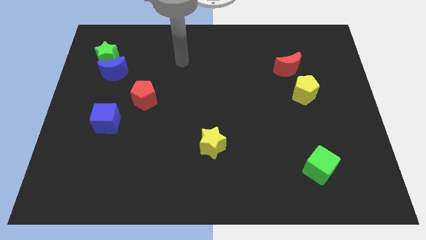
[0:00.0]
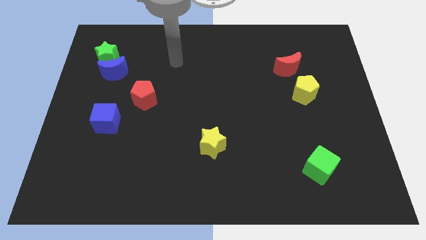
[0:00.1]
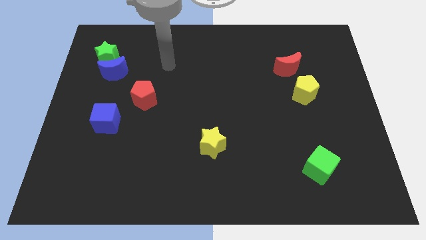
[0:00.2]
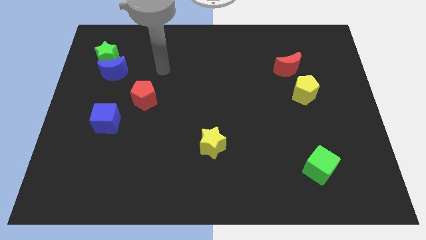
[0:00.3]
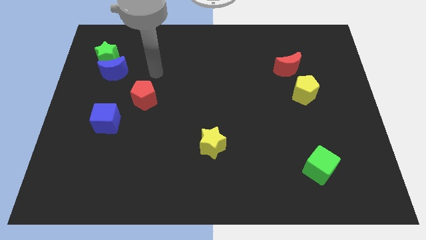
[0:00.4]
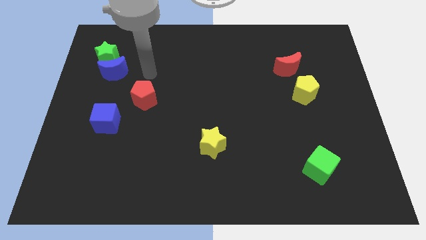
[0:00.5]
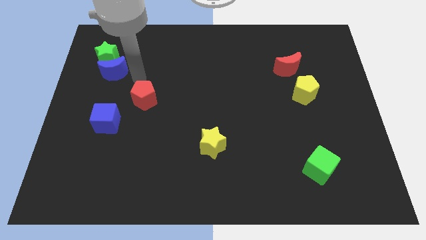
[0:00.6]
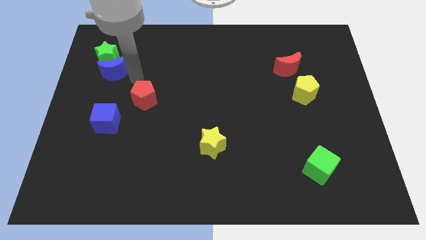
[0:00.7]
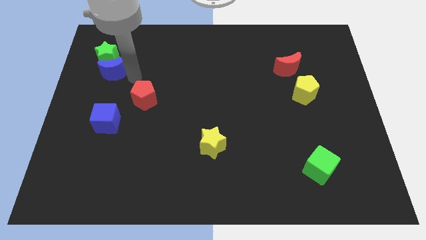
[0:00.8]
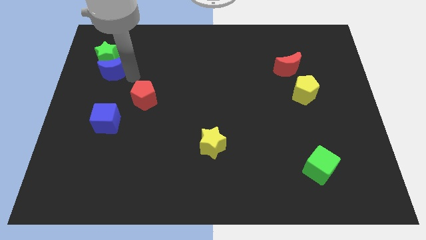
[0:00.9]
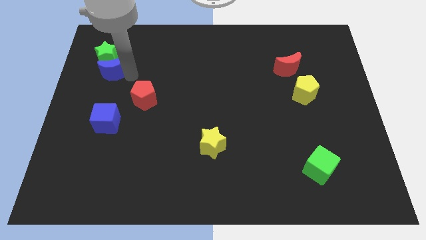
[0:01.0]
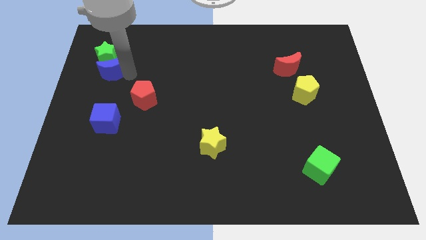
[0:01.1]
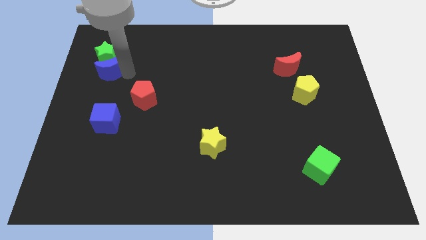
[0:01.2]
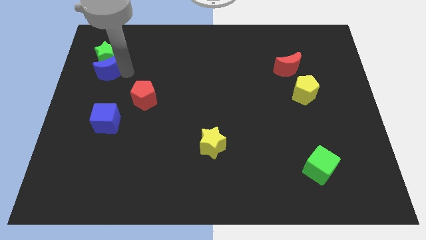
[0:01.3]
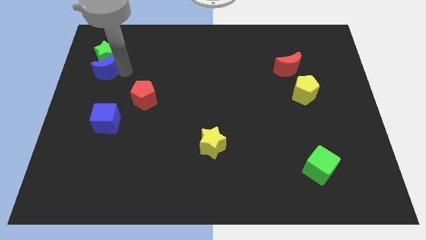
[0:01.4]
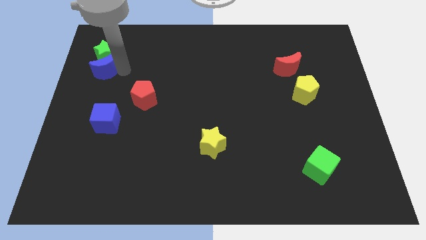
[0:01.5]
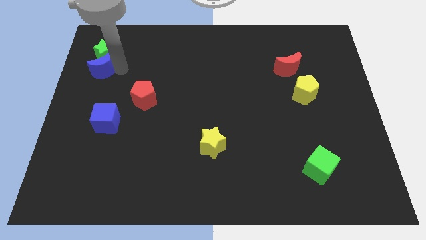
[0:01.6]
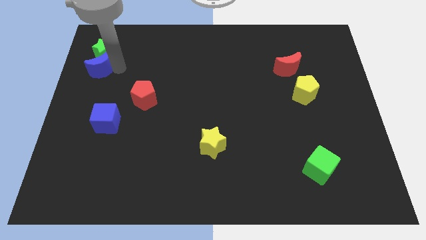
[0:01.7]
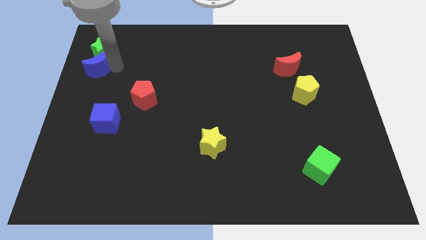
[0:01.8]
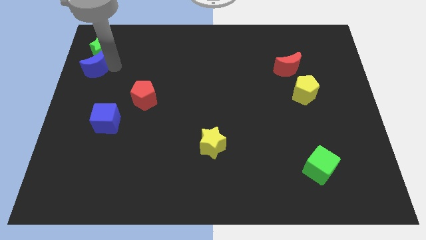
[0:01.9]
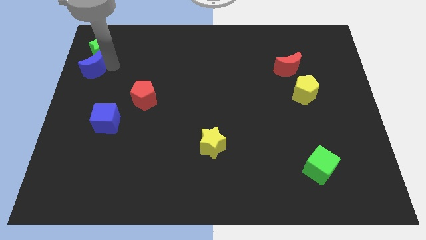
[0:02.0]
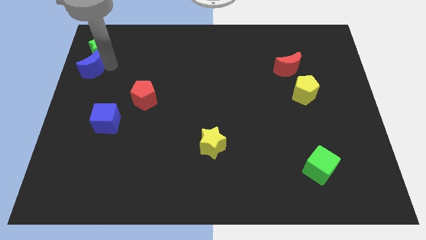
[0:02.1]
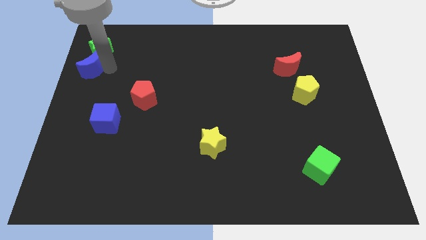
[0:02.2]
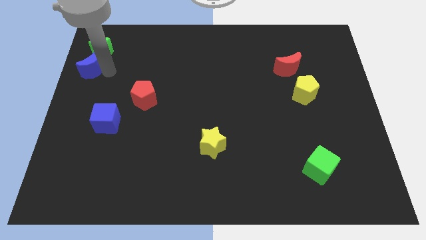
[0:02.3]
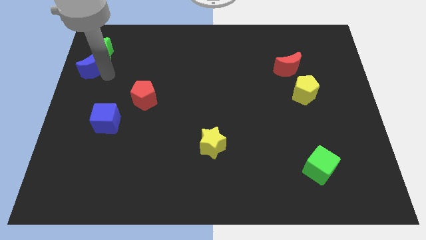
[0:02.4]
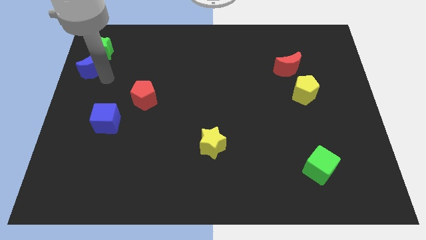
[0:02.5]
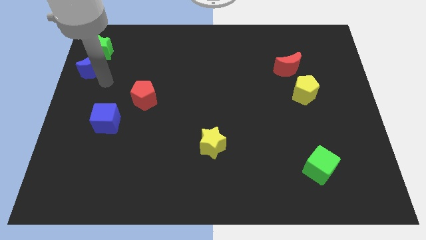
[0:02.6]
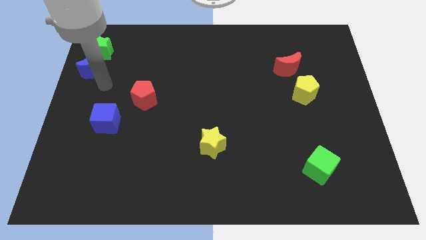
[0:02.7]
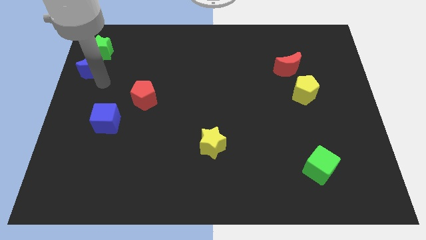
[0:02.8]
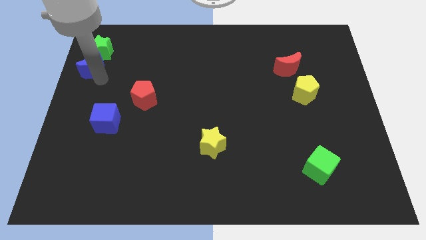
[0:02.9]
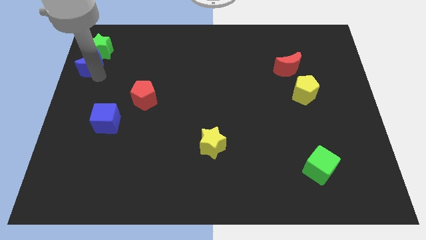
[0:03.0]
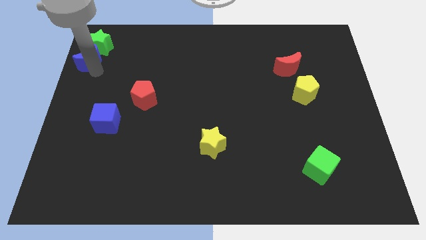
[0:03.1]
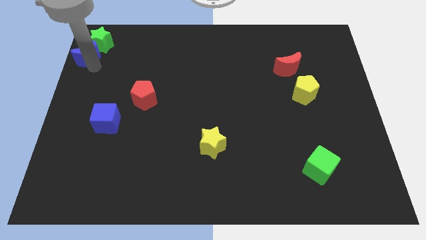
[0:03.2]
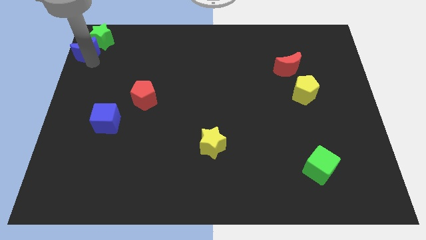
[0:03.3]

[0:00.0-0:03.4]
push the blue moon to the top left of the board

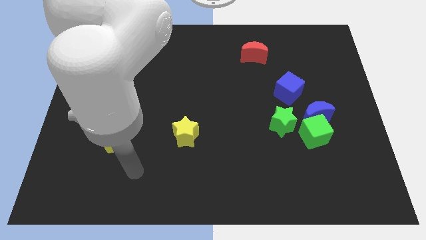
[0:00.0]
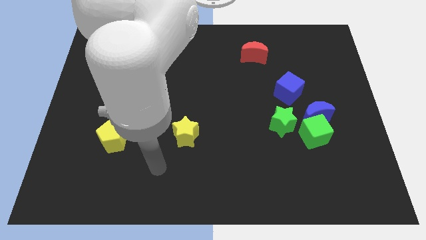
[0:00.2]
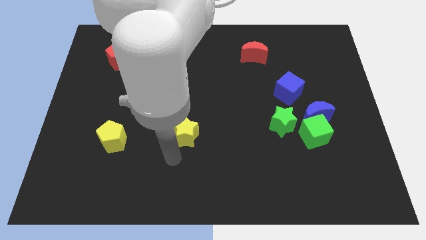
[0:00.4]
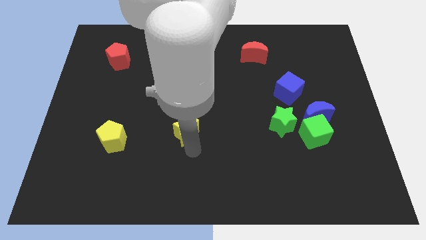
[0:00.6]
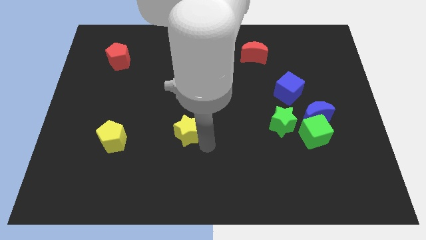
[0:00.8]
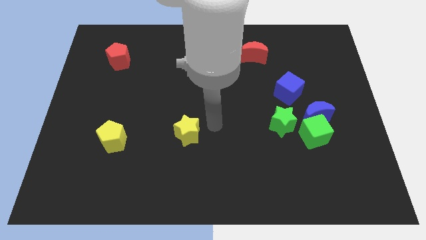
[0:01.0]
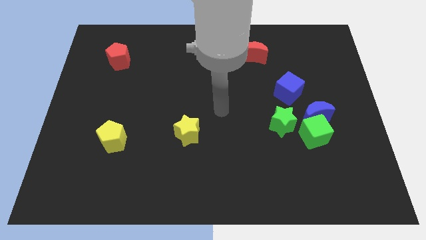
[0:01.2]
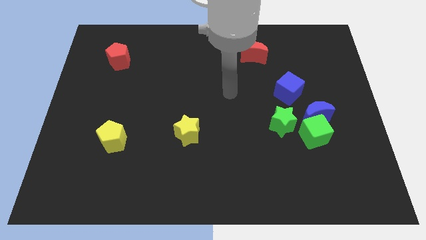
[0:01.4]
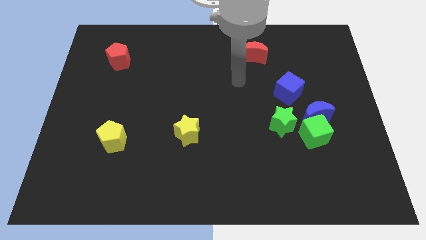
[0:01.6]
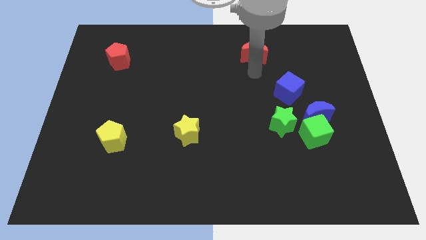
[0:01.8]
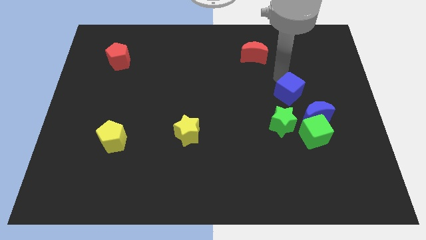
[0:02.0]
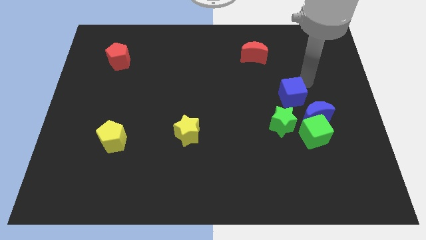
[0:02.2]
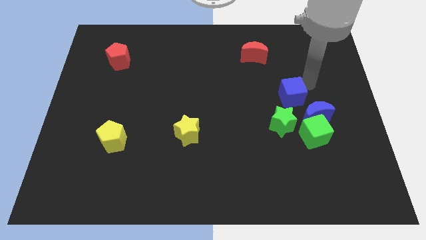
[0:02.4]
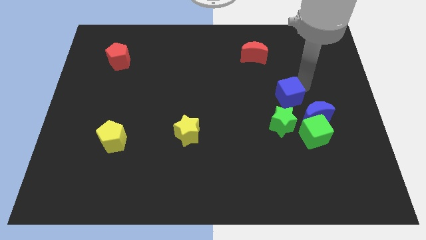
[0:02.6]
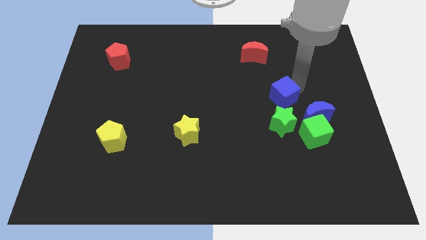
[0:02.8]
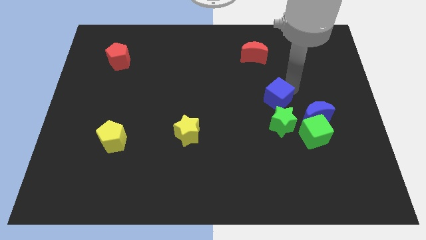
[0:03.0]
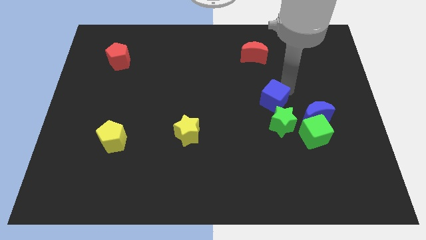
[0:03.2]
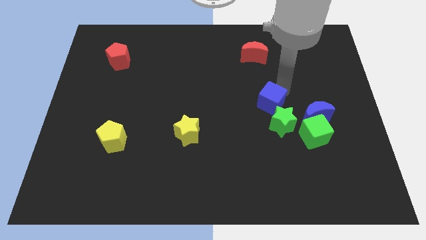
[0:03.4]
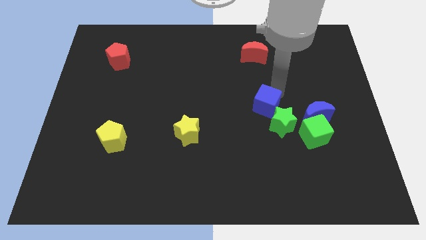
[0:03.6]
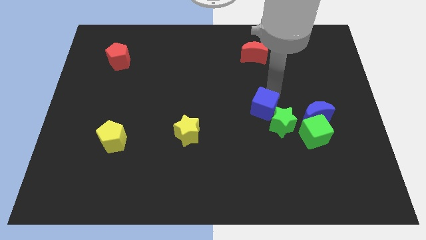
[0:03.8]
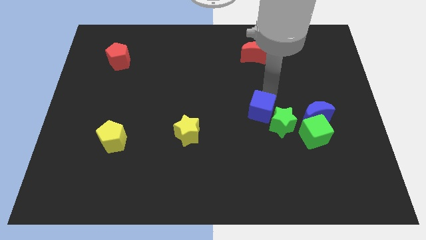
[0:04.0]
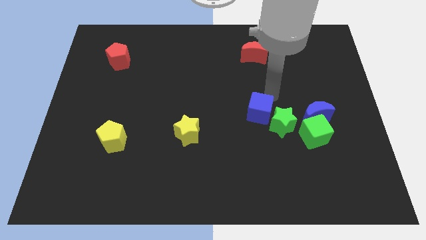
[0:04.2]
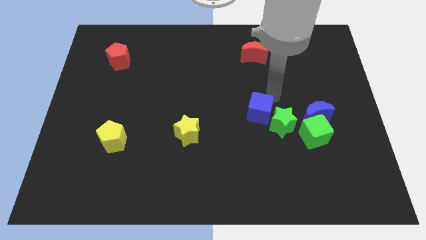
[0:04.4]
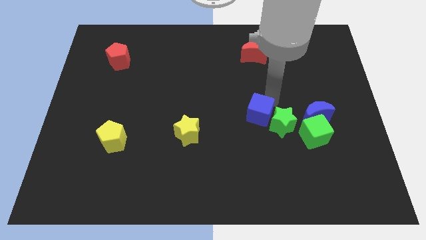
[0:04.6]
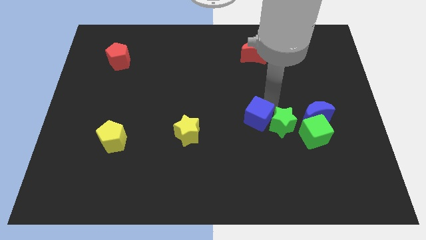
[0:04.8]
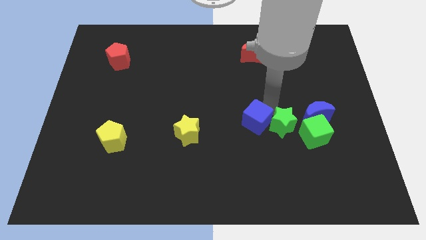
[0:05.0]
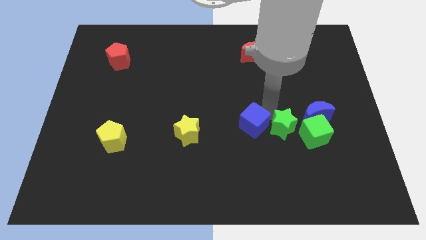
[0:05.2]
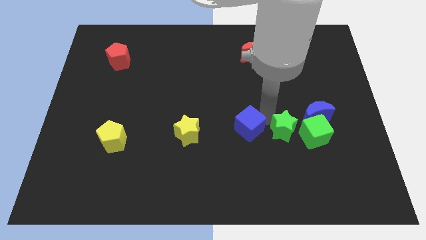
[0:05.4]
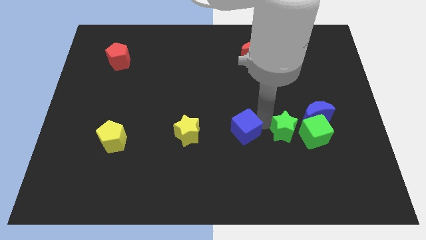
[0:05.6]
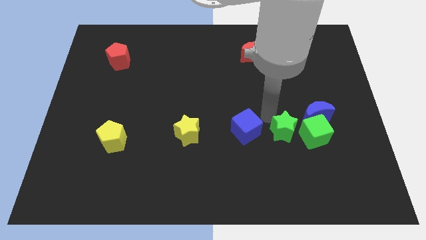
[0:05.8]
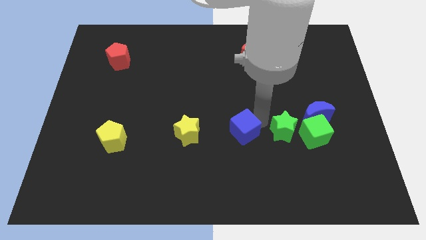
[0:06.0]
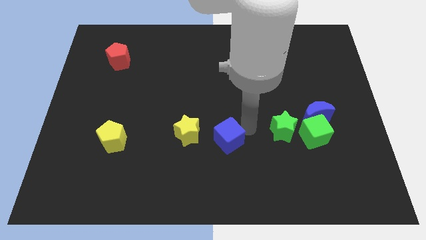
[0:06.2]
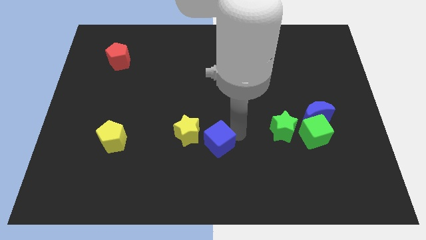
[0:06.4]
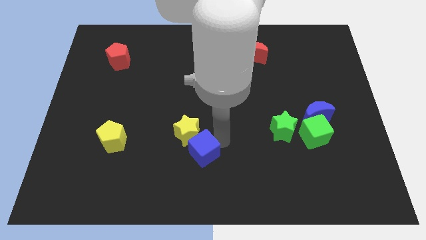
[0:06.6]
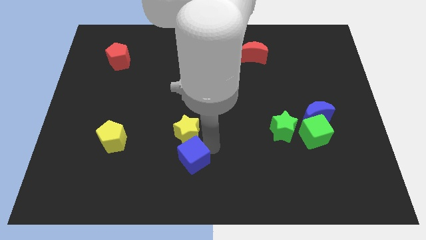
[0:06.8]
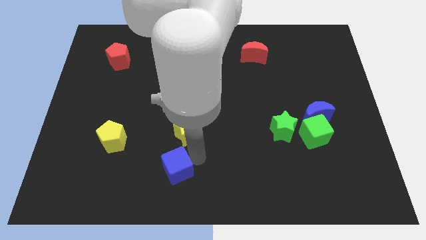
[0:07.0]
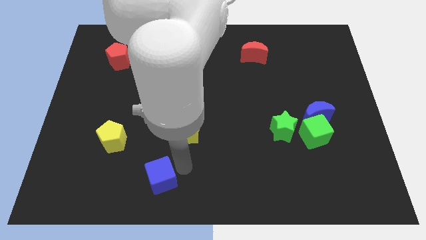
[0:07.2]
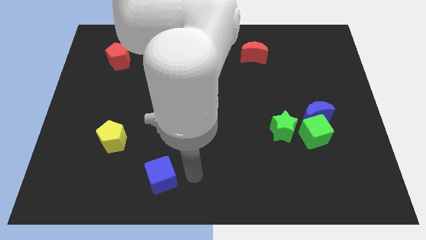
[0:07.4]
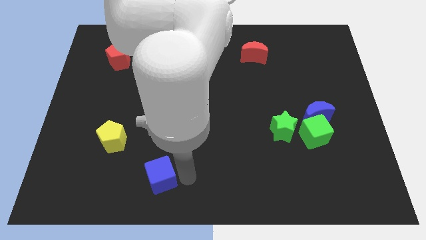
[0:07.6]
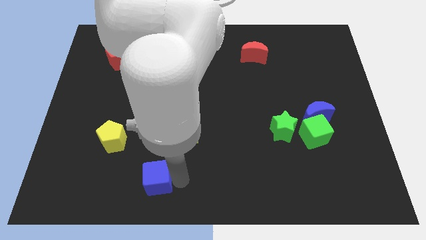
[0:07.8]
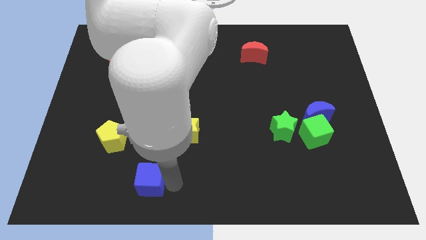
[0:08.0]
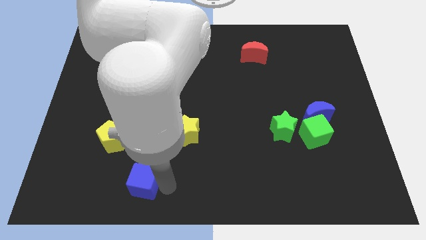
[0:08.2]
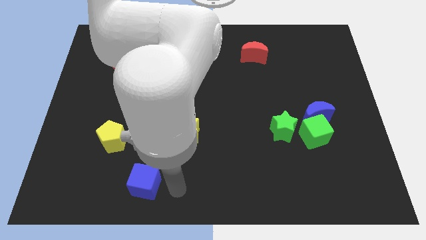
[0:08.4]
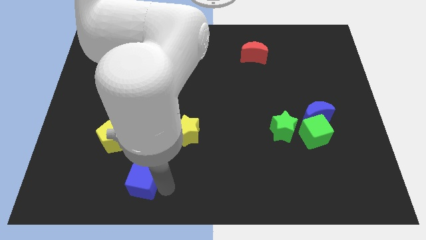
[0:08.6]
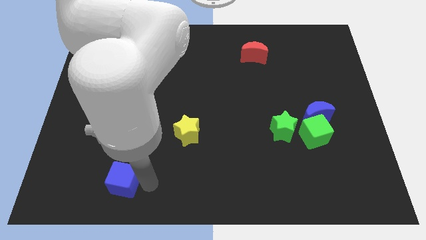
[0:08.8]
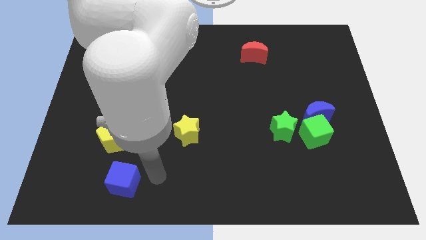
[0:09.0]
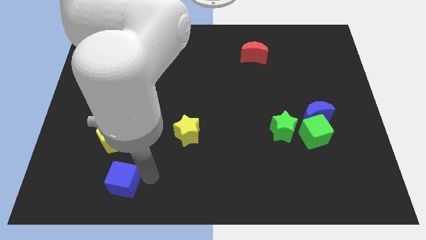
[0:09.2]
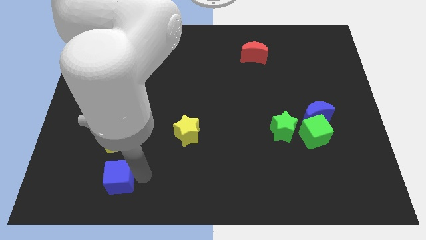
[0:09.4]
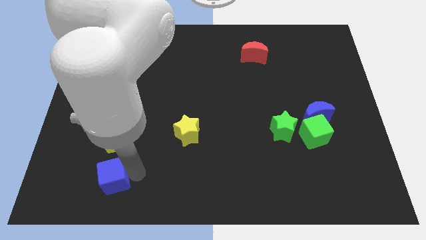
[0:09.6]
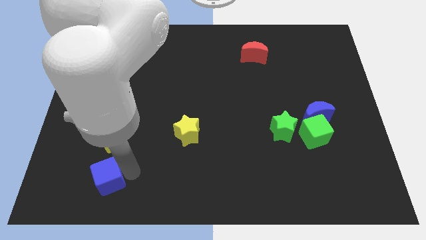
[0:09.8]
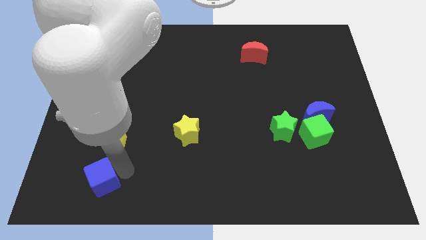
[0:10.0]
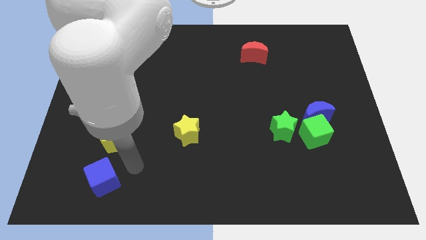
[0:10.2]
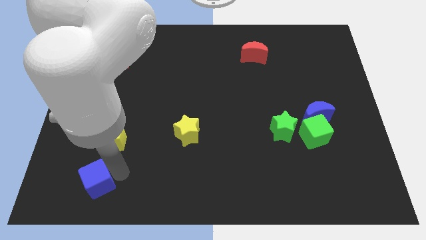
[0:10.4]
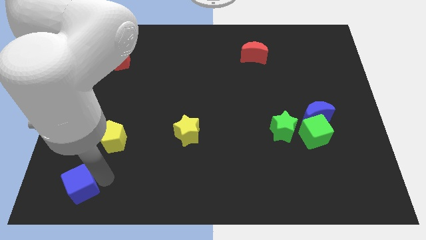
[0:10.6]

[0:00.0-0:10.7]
put the blue cube to the bottom left corner
